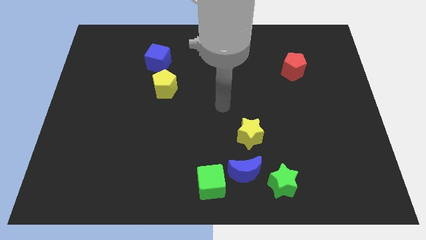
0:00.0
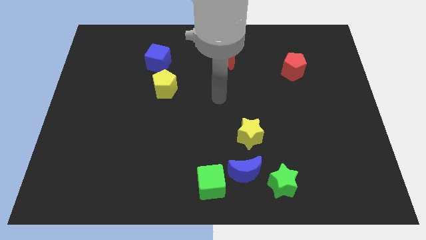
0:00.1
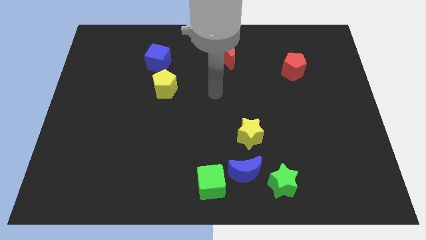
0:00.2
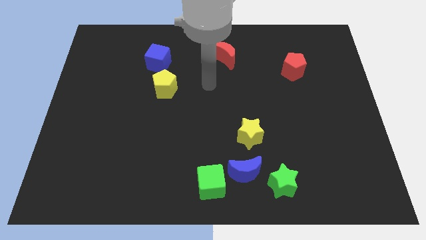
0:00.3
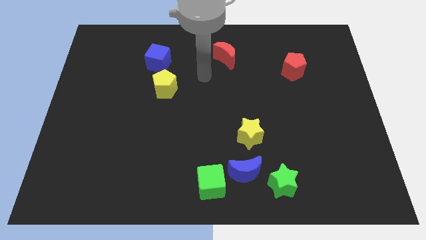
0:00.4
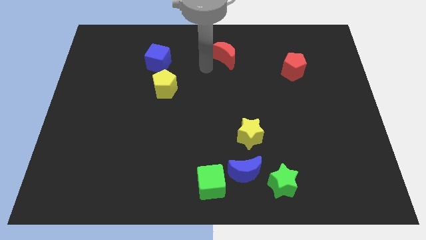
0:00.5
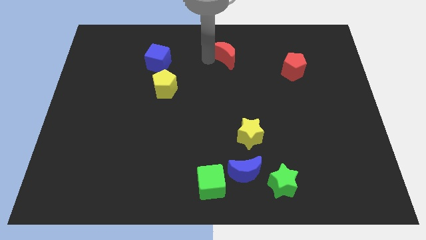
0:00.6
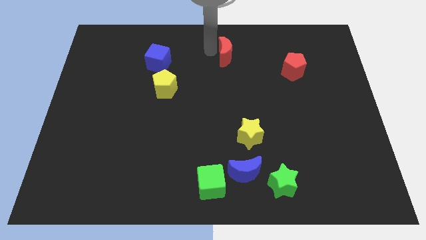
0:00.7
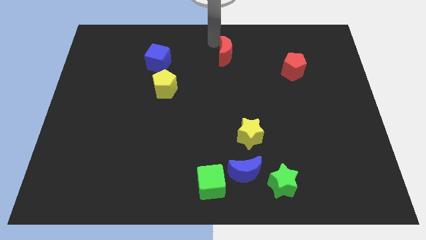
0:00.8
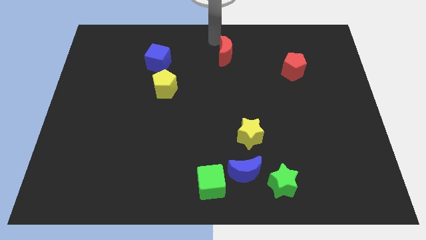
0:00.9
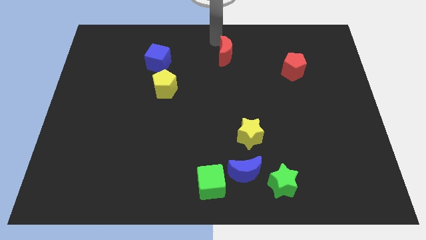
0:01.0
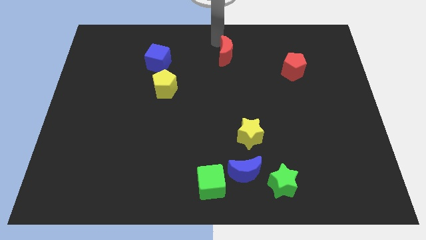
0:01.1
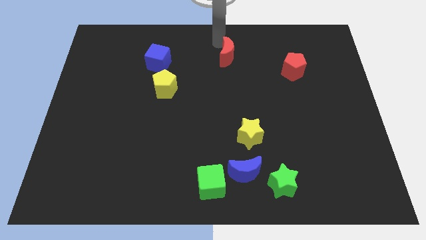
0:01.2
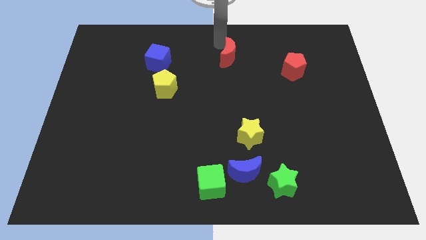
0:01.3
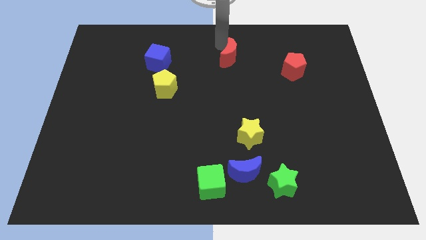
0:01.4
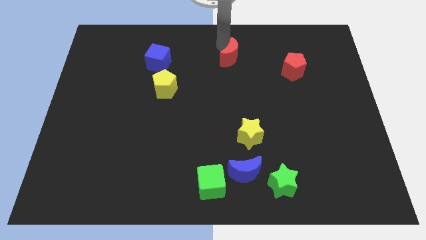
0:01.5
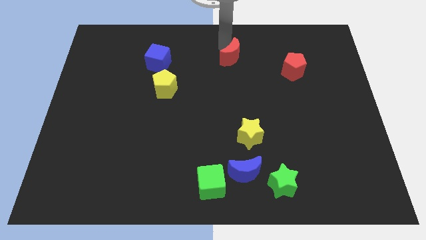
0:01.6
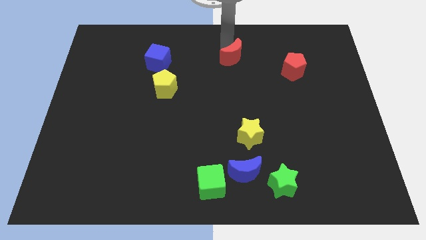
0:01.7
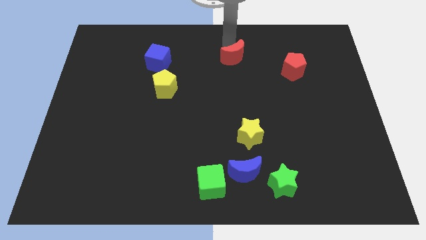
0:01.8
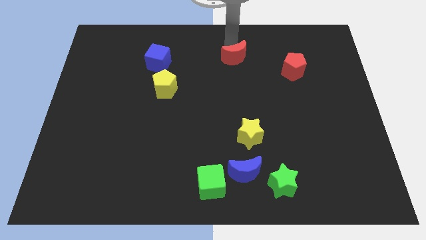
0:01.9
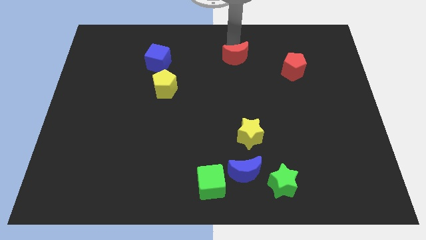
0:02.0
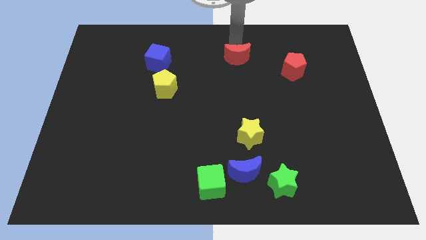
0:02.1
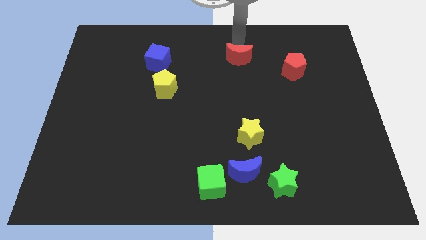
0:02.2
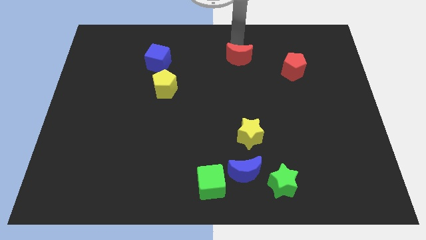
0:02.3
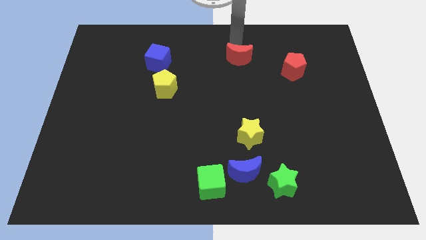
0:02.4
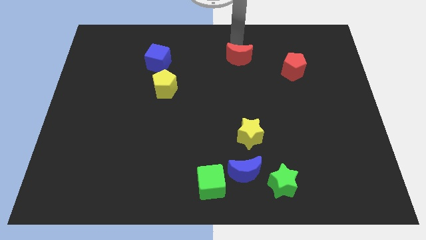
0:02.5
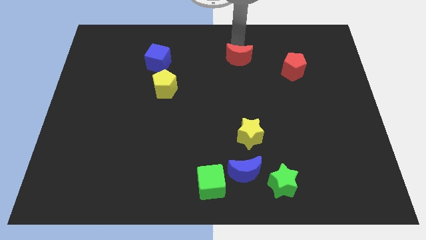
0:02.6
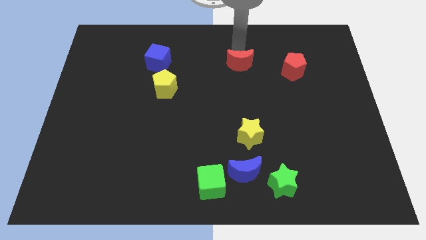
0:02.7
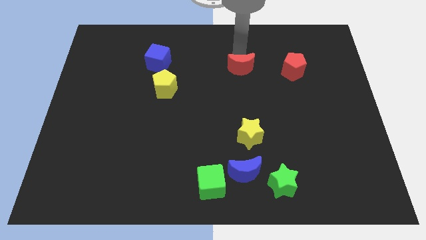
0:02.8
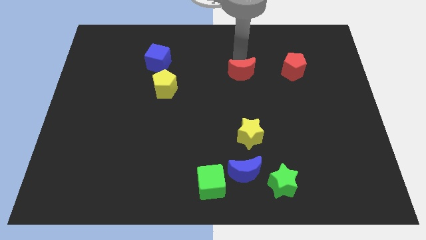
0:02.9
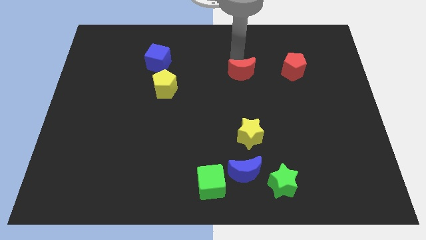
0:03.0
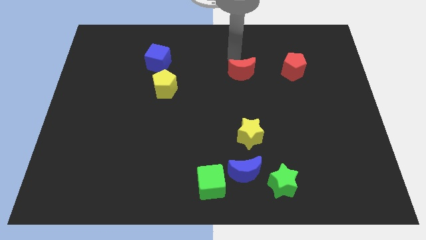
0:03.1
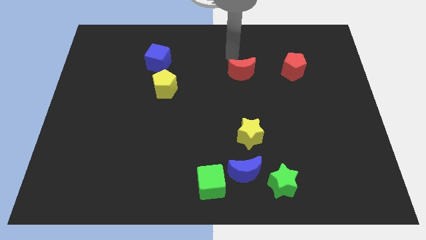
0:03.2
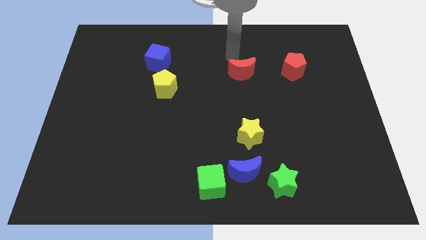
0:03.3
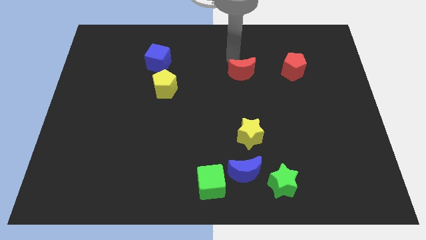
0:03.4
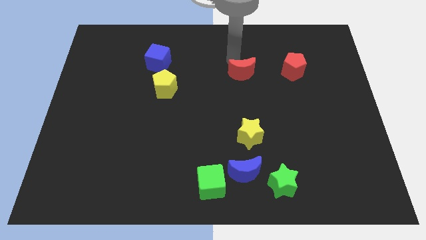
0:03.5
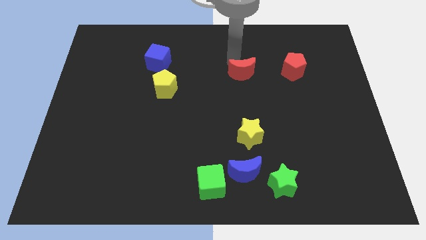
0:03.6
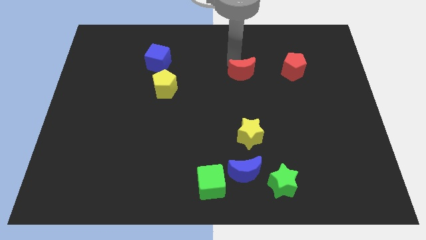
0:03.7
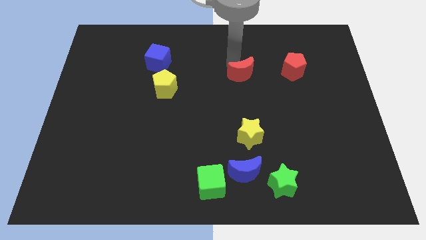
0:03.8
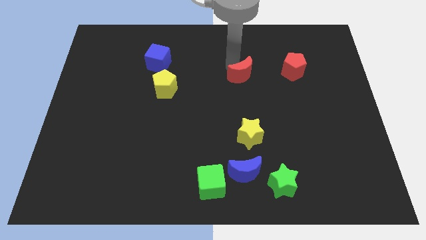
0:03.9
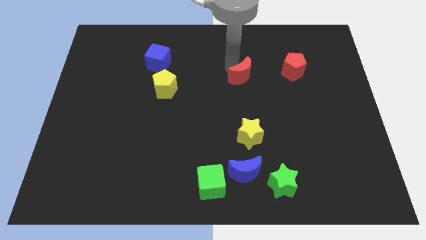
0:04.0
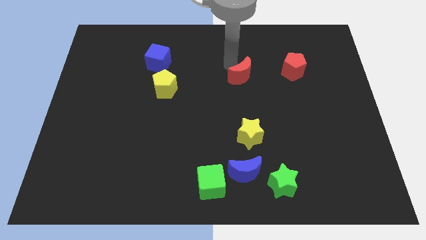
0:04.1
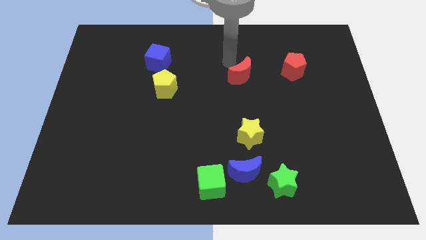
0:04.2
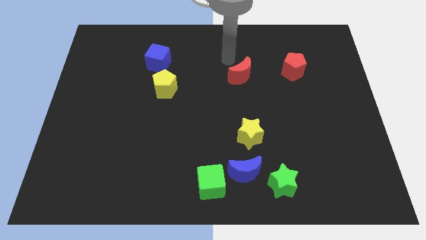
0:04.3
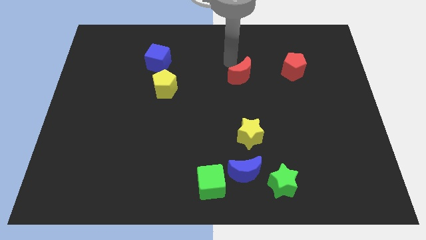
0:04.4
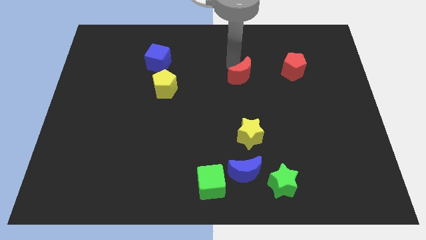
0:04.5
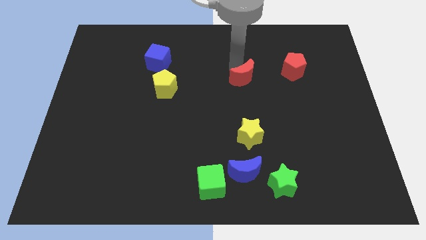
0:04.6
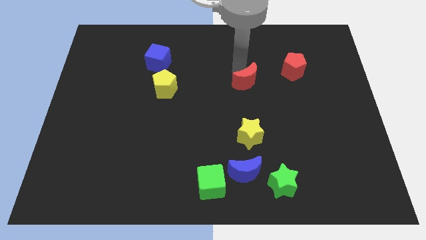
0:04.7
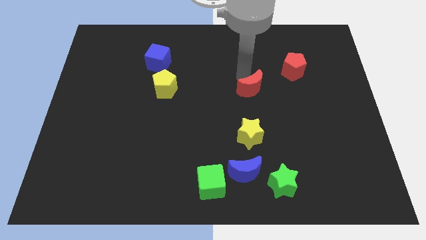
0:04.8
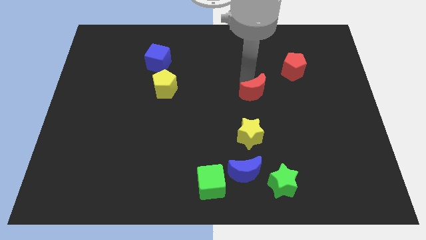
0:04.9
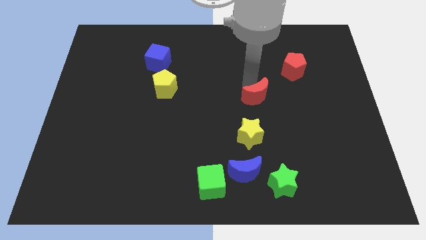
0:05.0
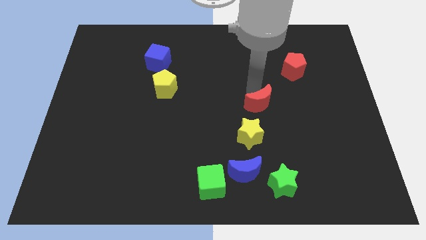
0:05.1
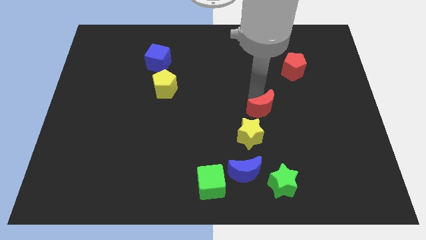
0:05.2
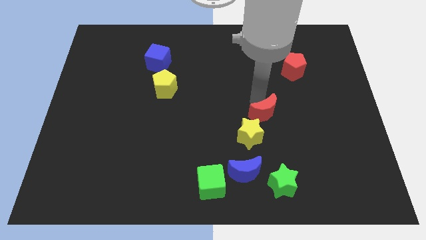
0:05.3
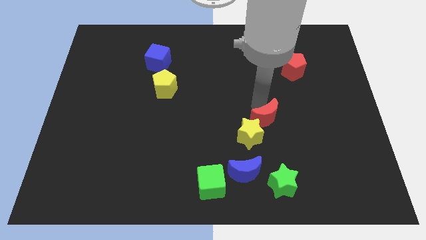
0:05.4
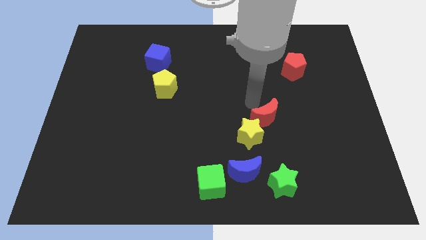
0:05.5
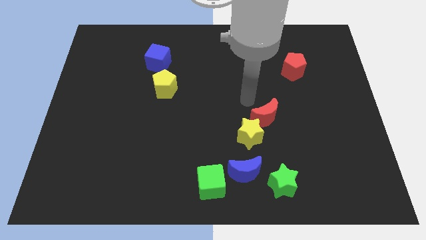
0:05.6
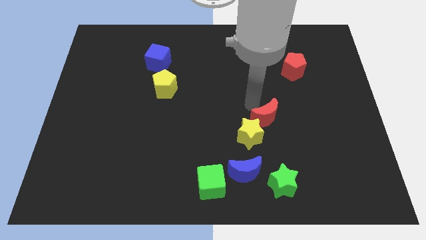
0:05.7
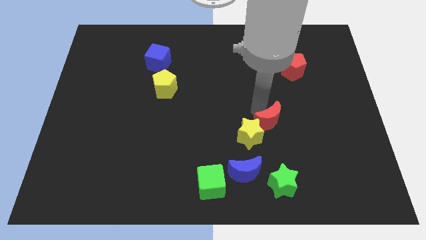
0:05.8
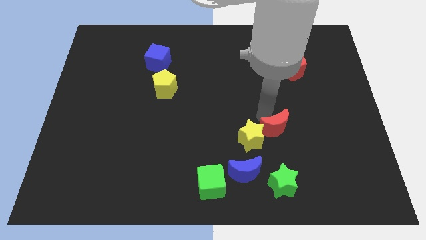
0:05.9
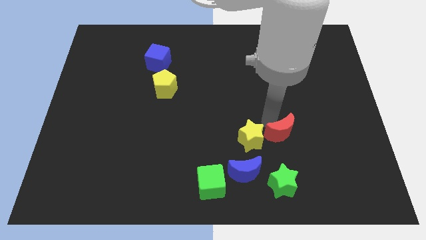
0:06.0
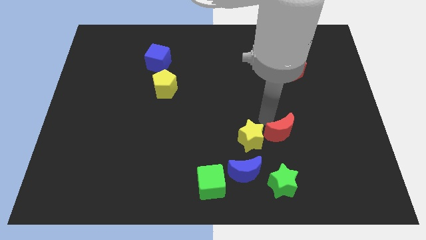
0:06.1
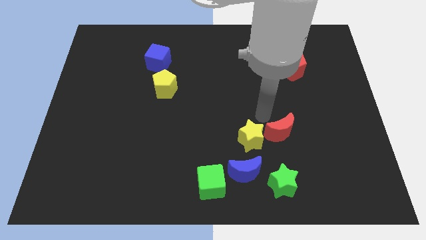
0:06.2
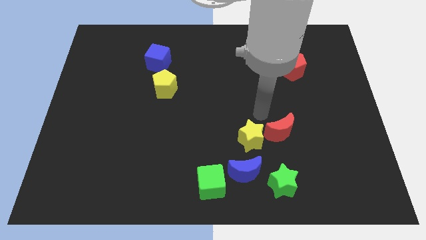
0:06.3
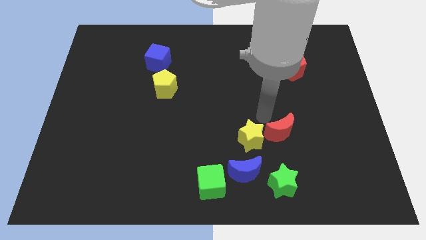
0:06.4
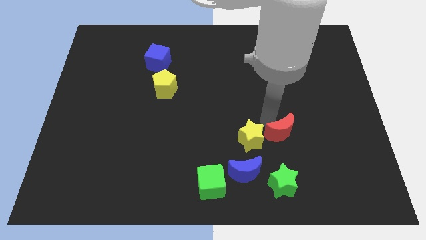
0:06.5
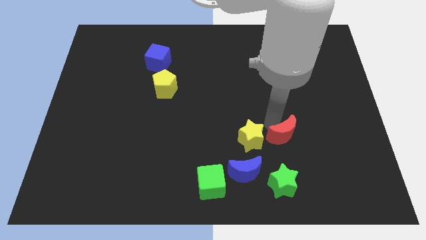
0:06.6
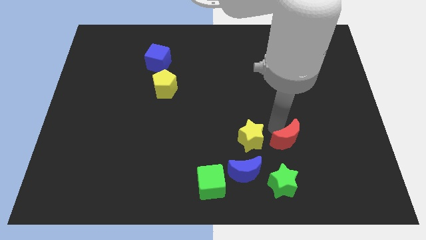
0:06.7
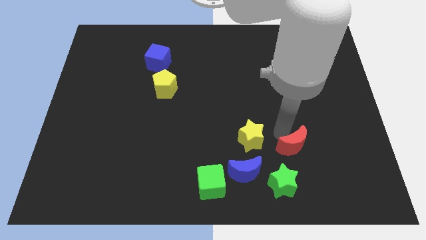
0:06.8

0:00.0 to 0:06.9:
push the red moon diagonally up and to the right of the green star
